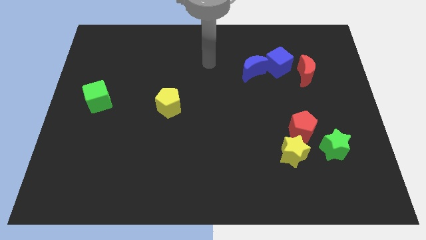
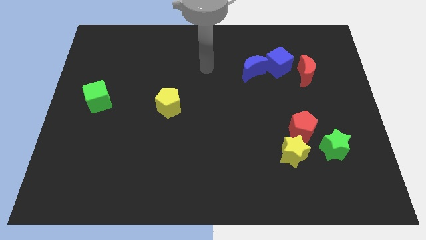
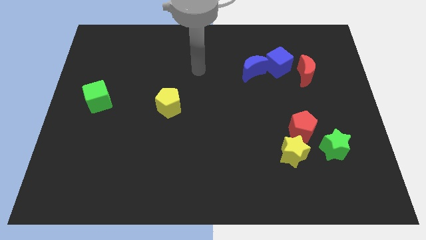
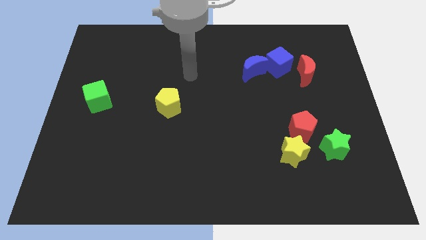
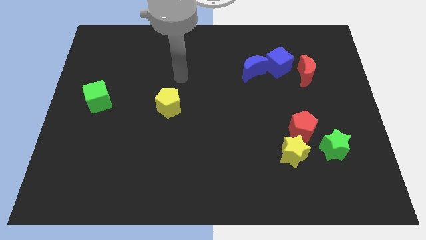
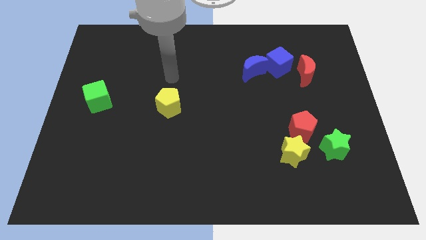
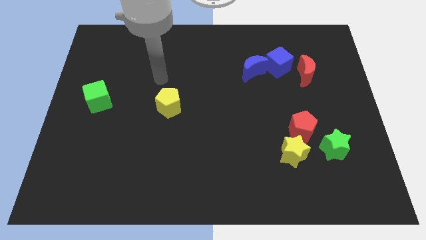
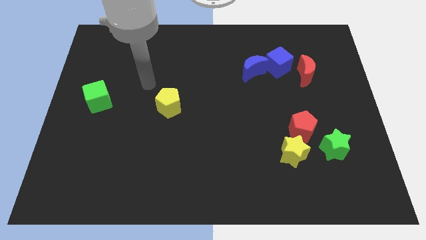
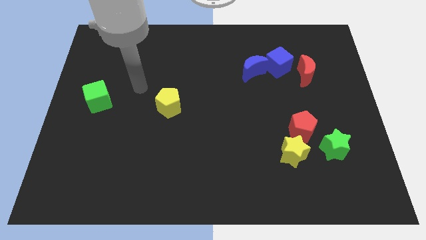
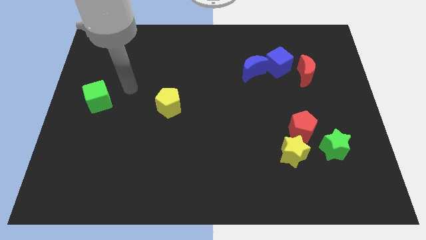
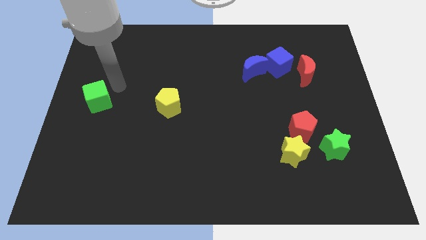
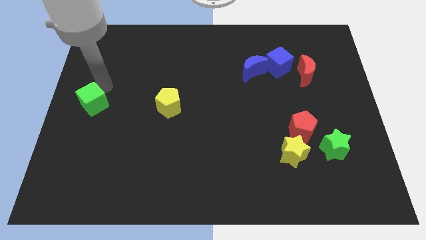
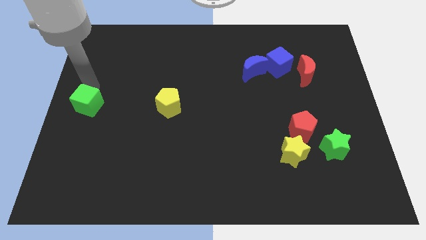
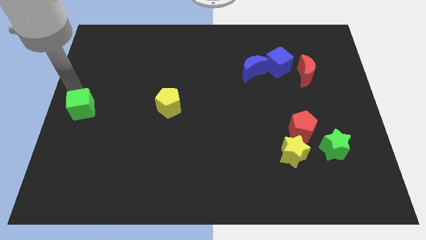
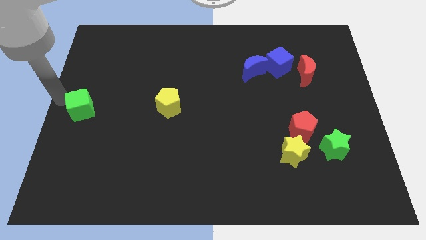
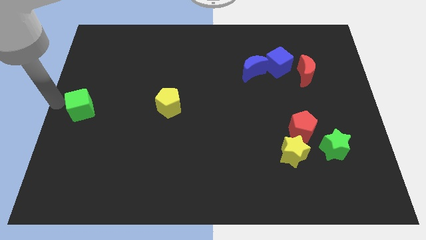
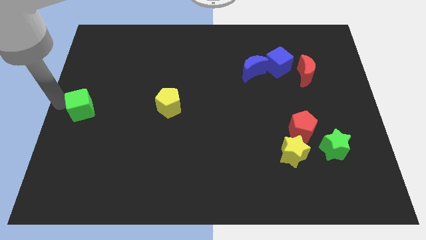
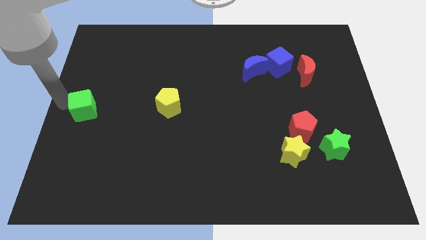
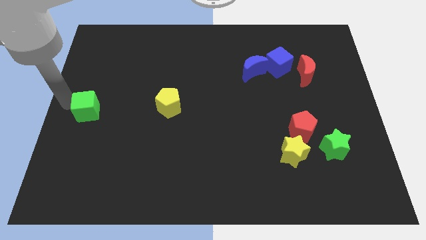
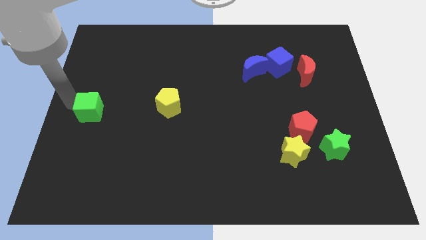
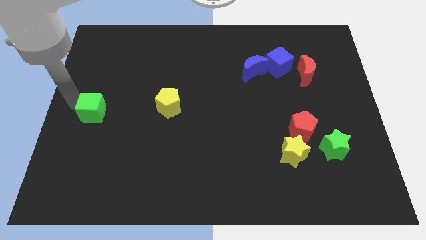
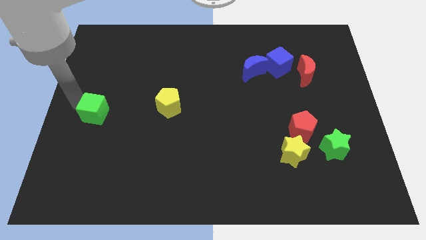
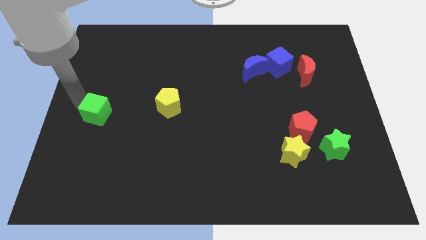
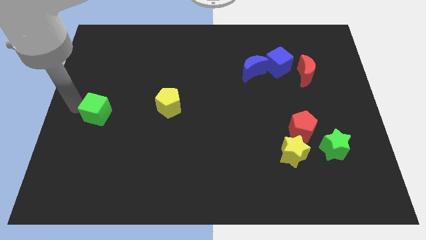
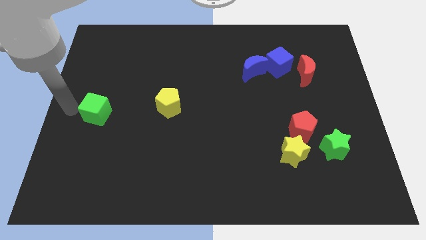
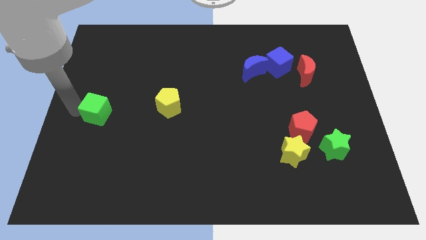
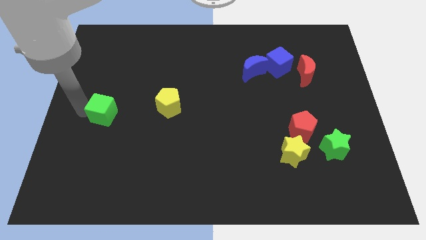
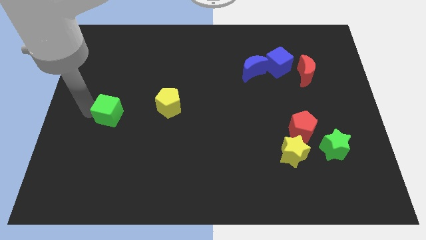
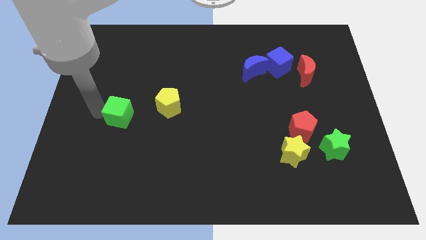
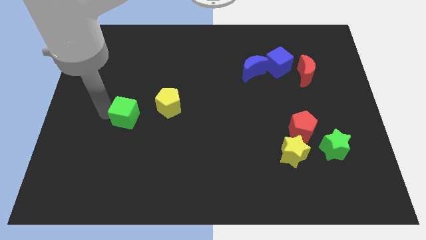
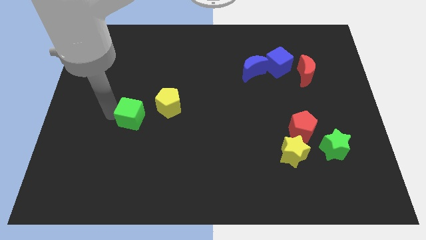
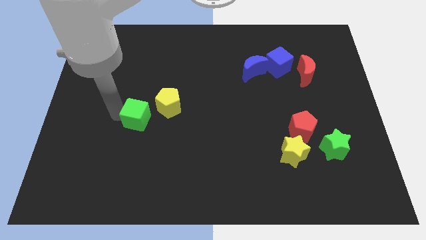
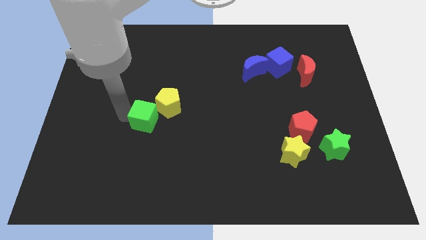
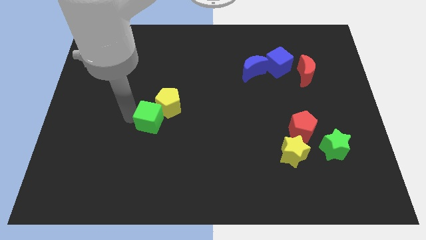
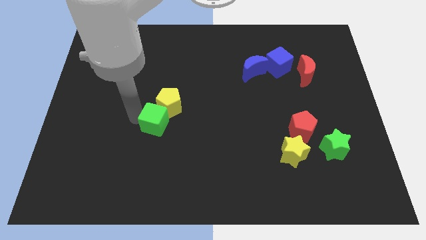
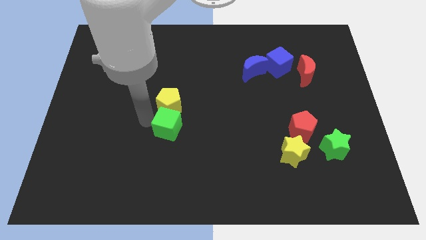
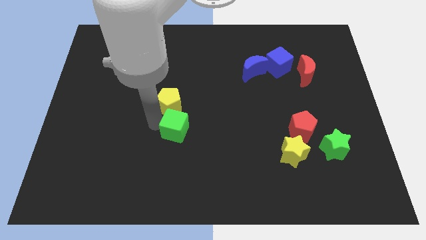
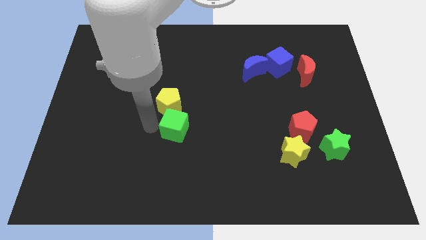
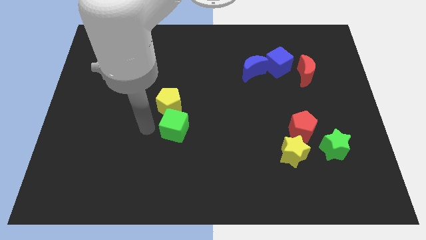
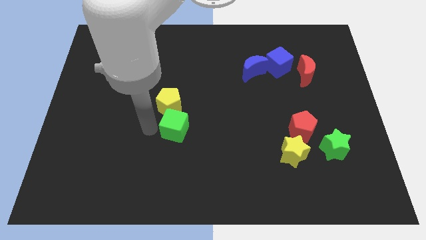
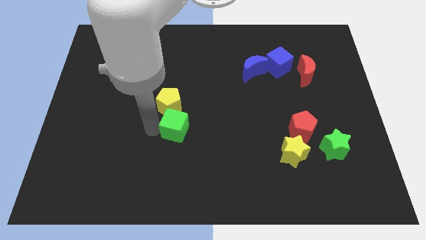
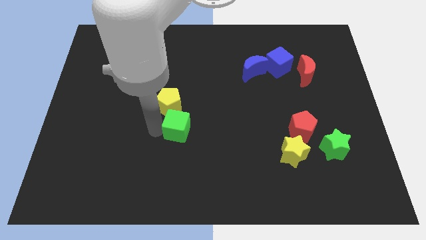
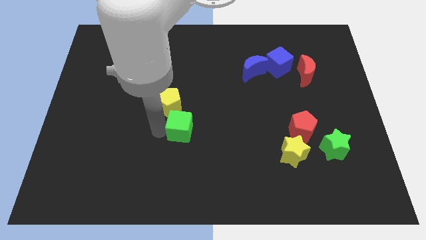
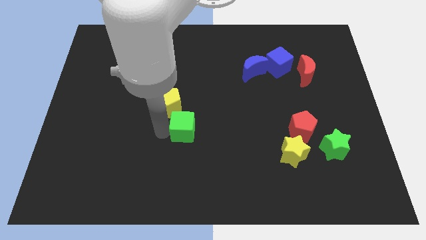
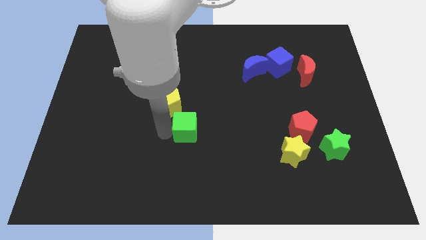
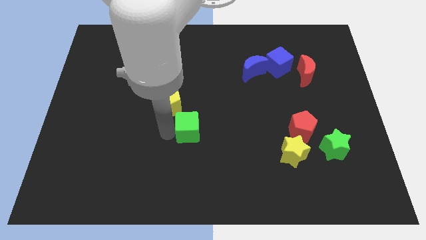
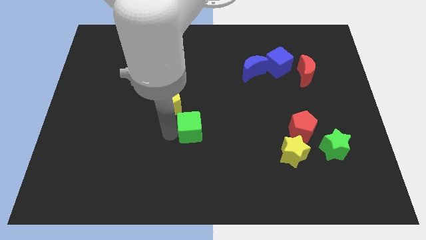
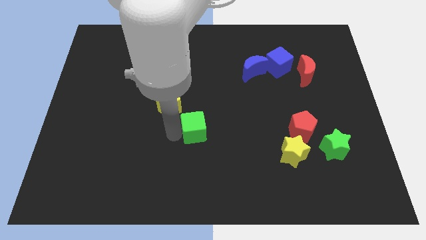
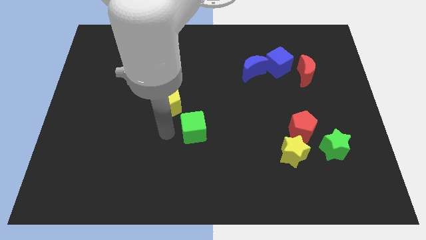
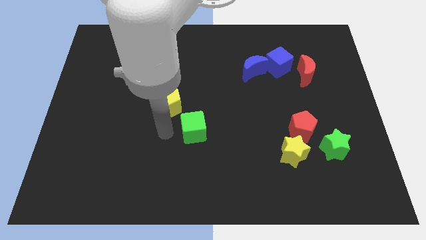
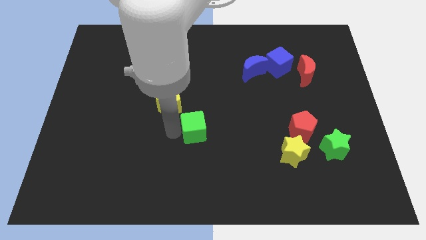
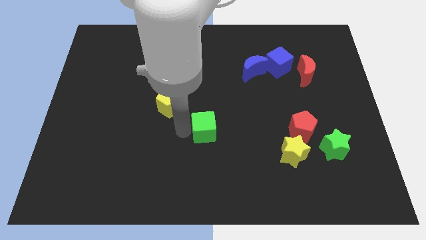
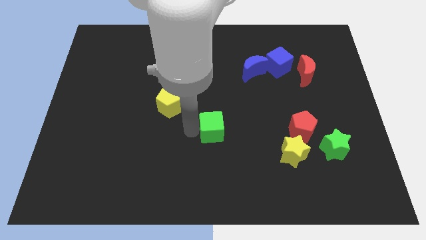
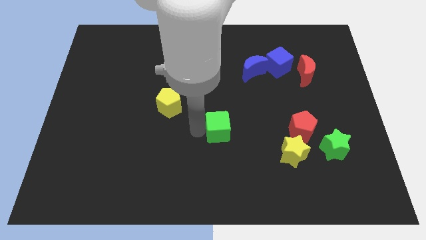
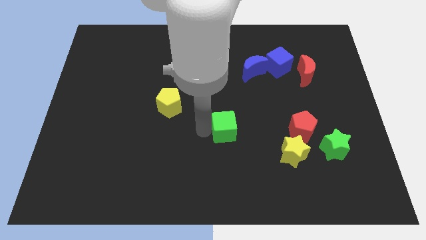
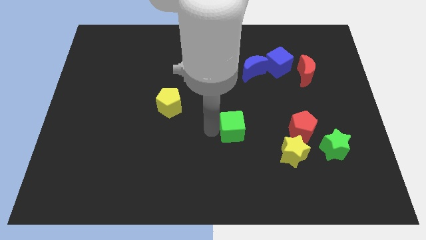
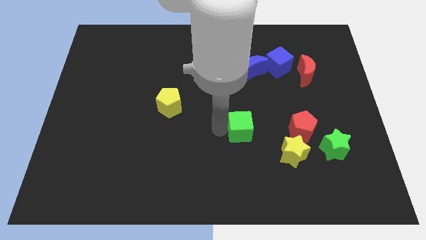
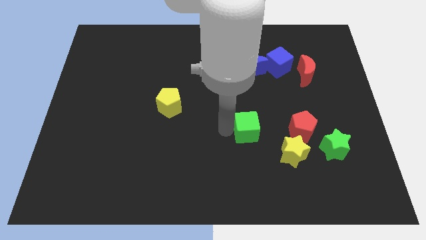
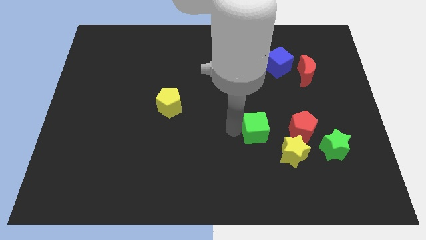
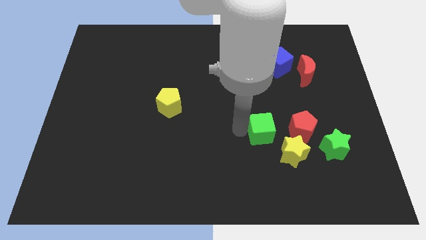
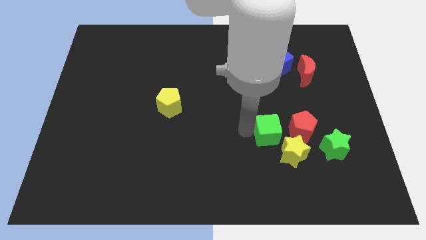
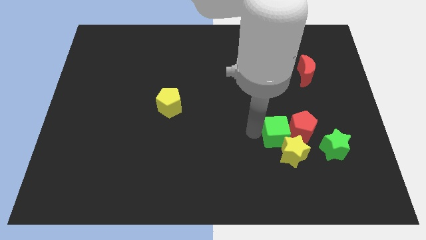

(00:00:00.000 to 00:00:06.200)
push the green cube close to the red pentagon

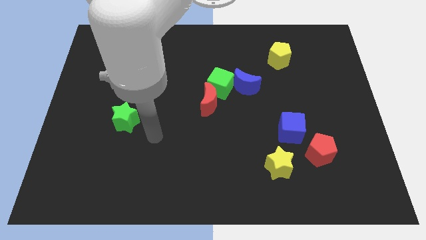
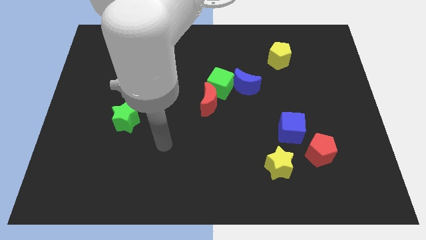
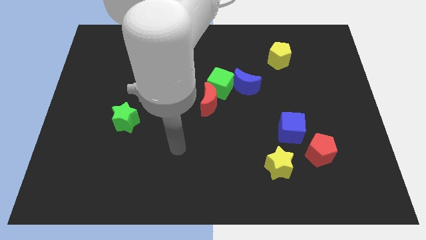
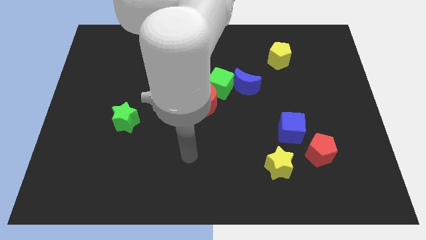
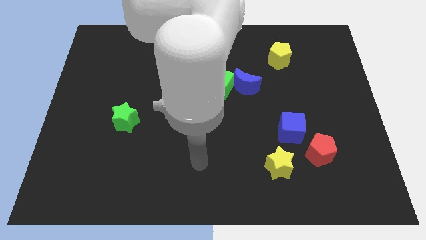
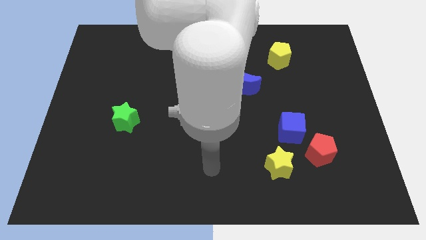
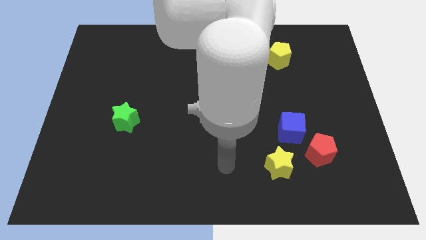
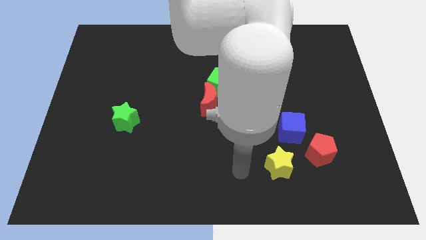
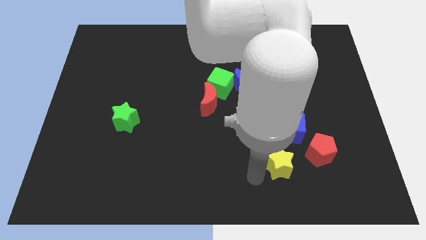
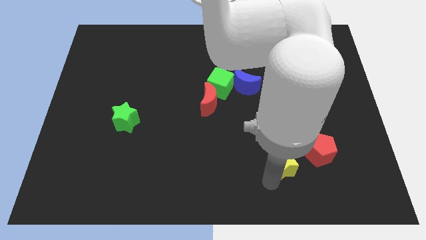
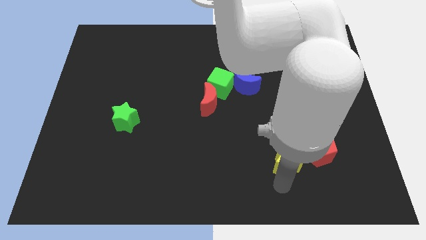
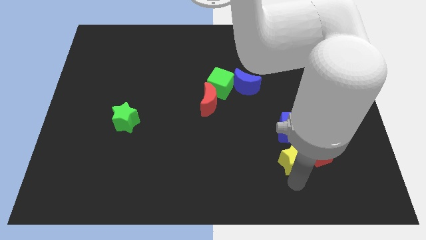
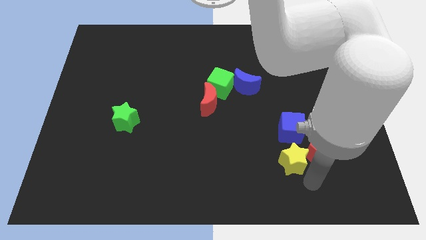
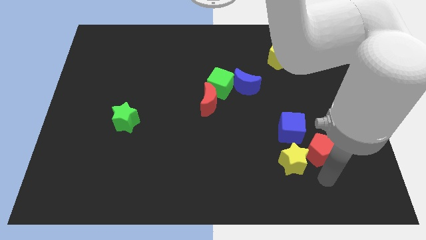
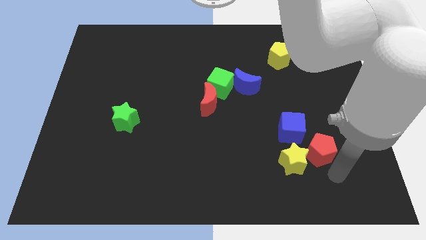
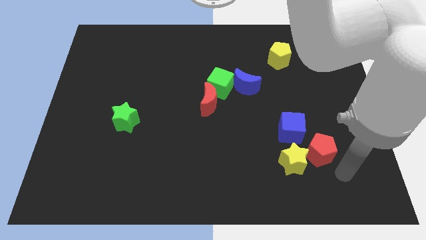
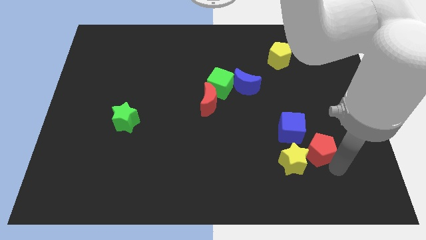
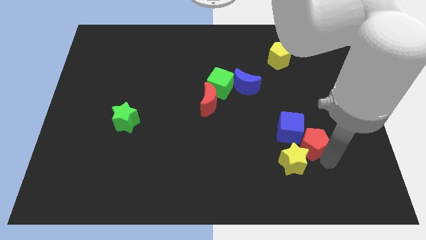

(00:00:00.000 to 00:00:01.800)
slide the red pentagon next to the blue cube
